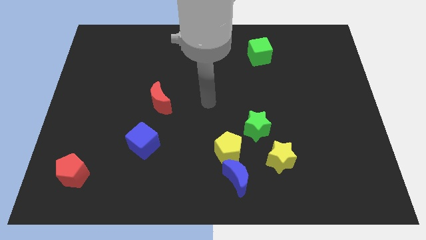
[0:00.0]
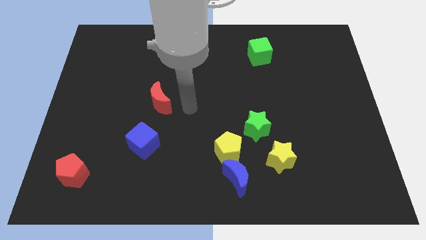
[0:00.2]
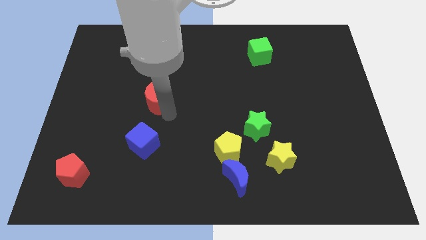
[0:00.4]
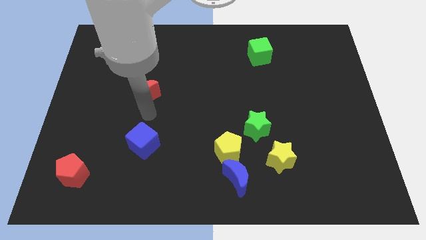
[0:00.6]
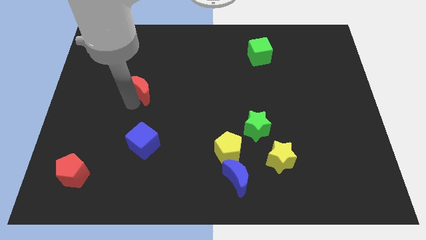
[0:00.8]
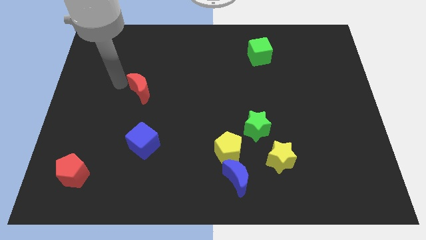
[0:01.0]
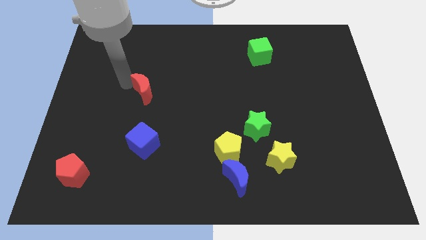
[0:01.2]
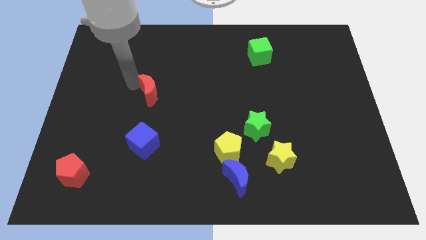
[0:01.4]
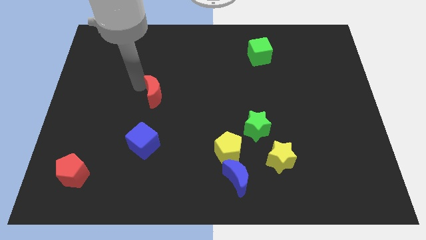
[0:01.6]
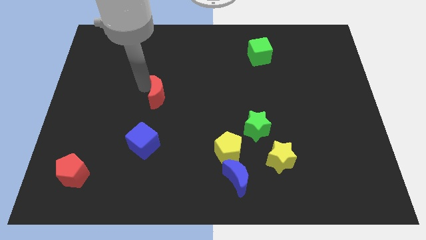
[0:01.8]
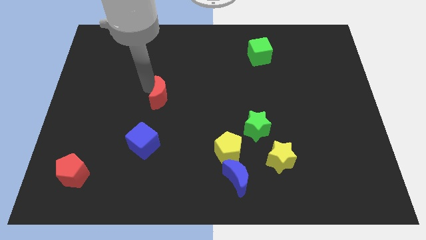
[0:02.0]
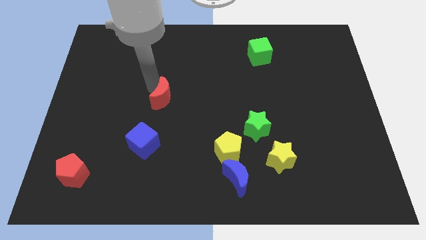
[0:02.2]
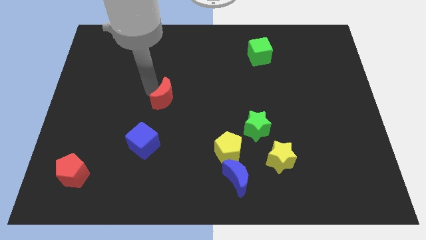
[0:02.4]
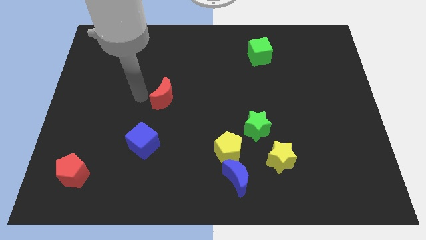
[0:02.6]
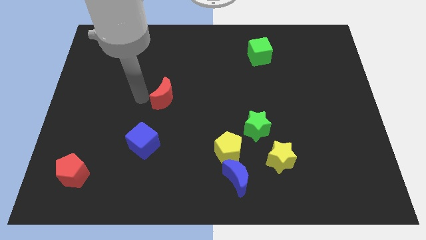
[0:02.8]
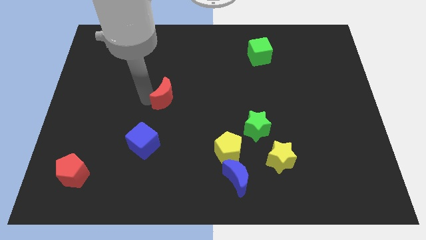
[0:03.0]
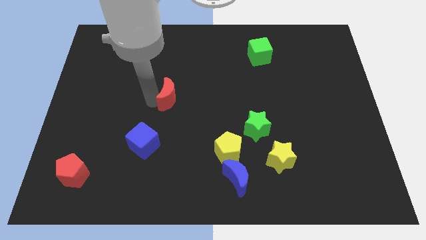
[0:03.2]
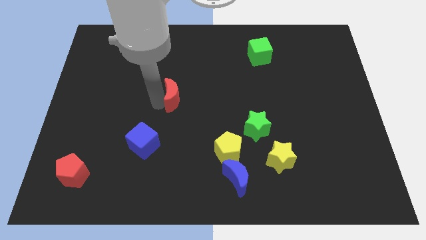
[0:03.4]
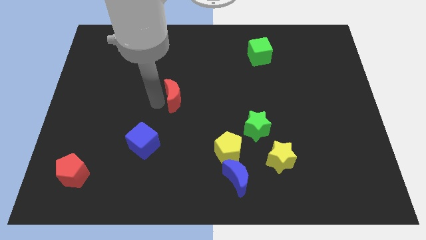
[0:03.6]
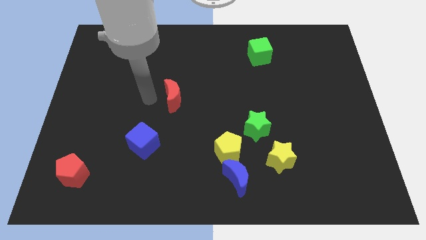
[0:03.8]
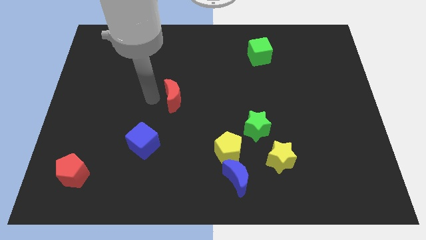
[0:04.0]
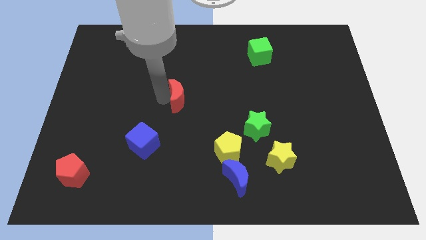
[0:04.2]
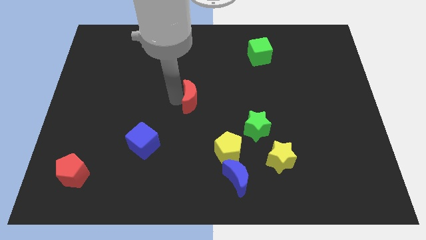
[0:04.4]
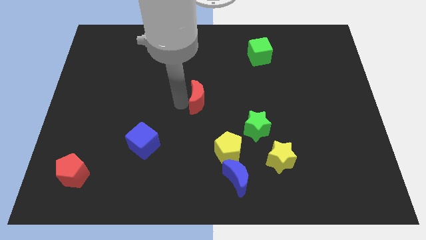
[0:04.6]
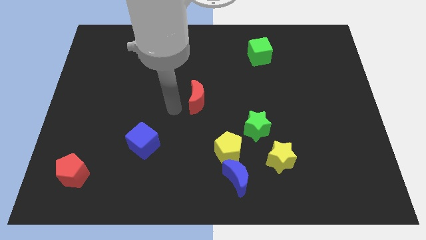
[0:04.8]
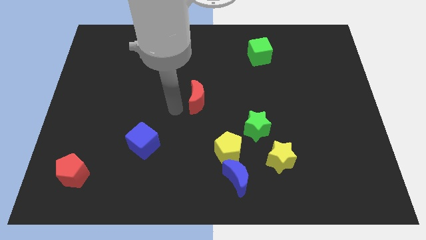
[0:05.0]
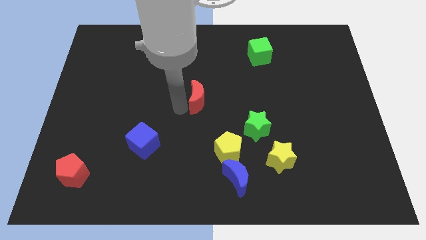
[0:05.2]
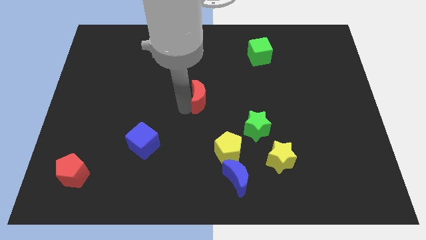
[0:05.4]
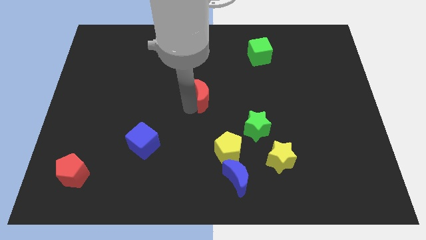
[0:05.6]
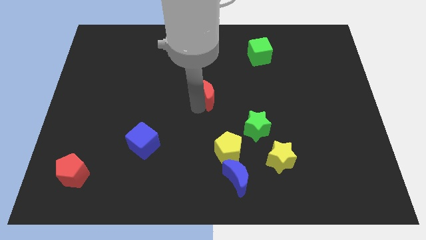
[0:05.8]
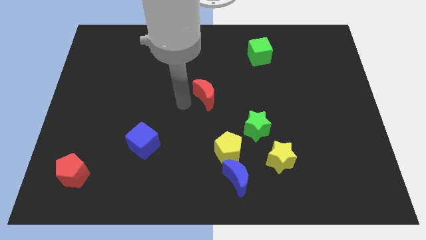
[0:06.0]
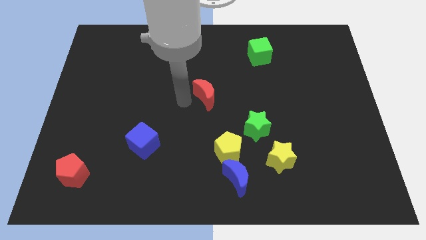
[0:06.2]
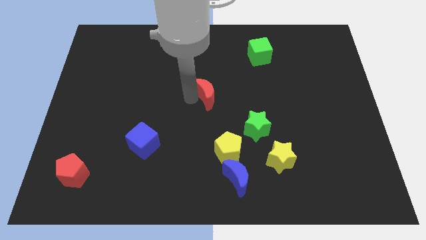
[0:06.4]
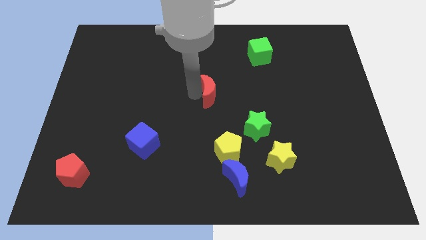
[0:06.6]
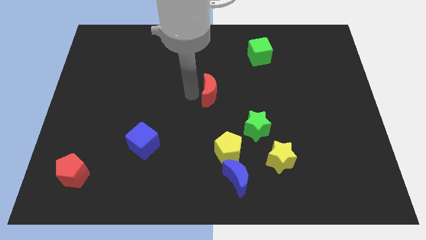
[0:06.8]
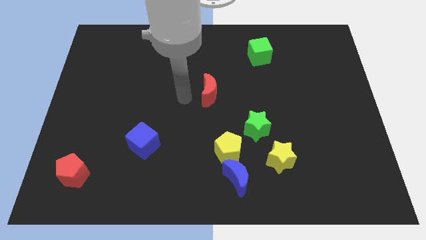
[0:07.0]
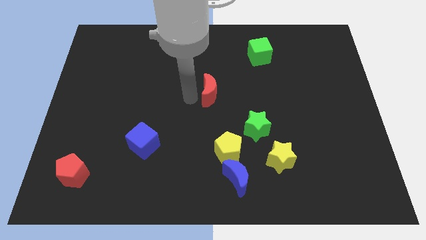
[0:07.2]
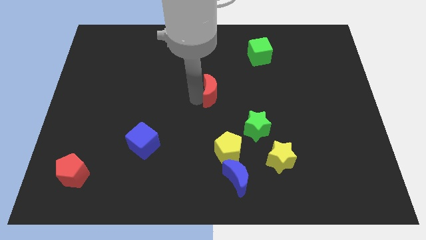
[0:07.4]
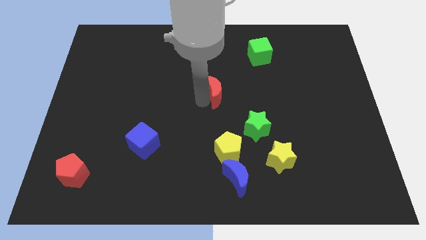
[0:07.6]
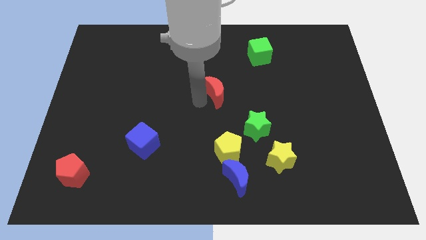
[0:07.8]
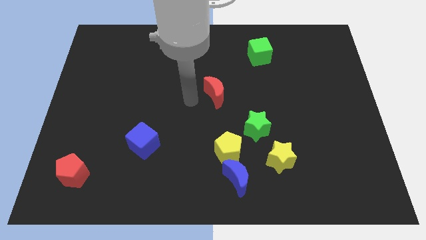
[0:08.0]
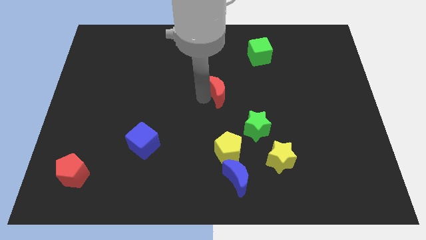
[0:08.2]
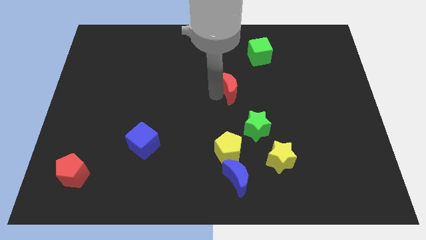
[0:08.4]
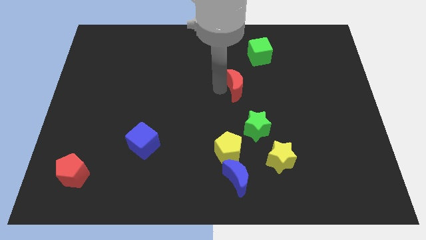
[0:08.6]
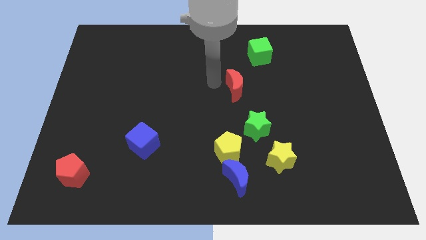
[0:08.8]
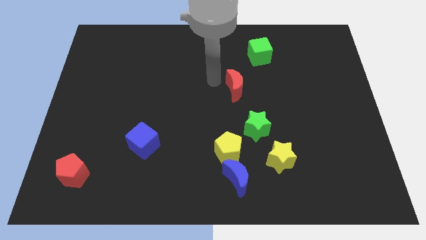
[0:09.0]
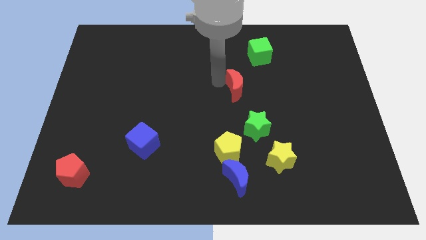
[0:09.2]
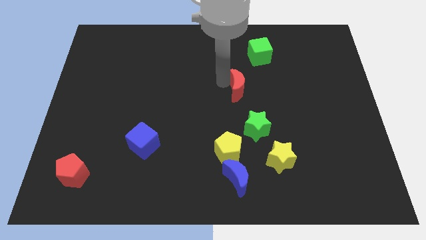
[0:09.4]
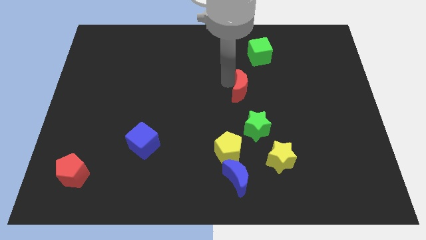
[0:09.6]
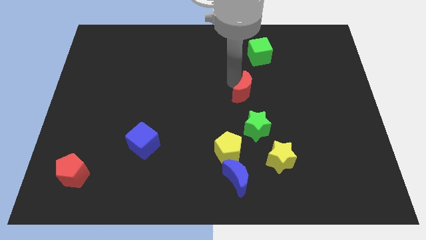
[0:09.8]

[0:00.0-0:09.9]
move the red moon to the right

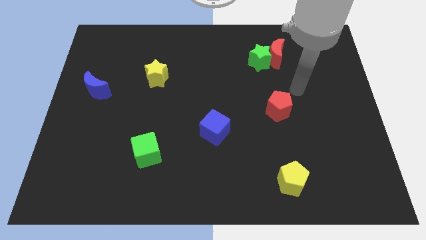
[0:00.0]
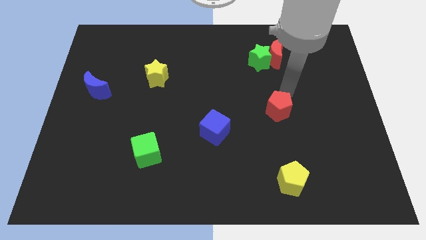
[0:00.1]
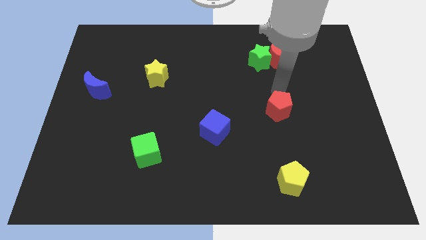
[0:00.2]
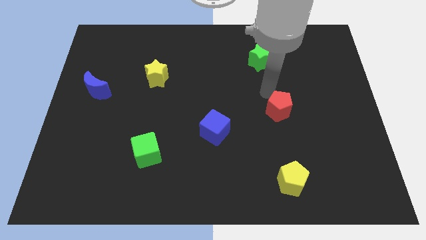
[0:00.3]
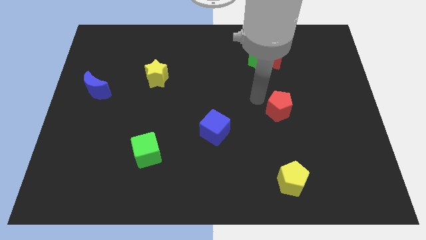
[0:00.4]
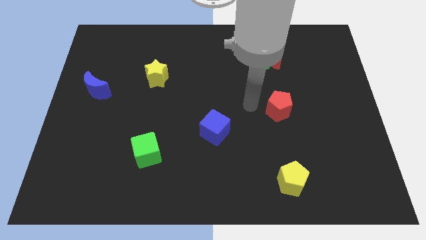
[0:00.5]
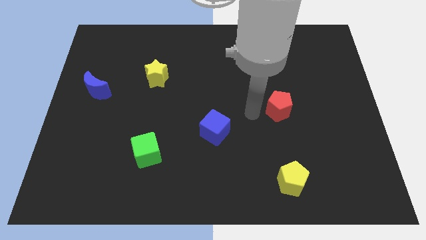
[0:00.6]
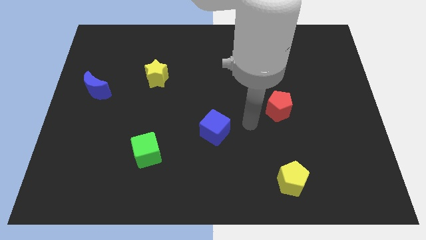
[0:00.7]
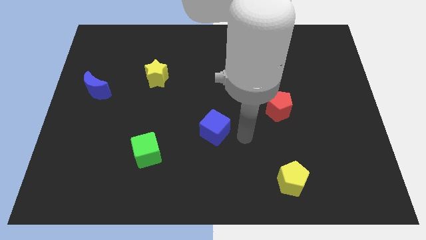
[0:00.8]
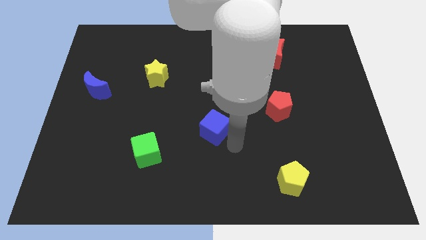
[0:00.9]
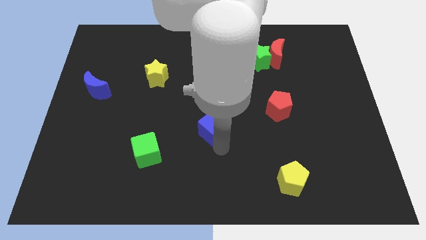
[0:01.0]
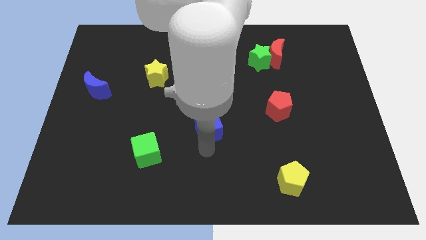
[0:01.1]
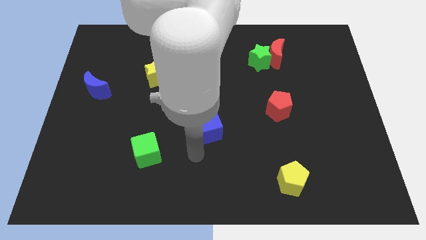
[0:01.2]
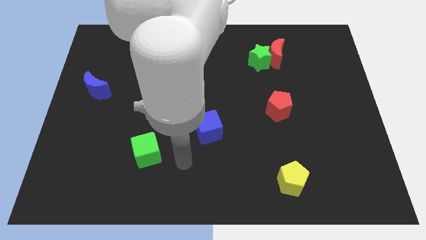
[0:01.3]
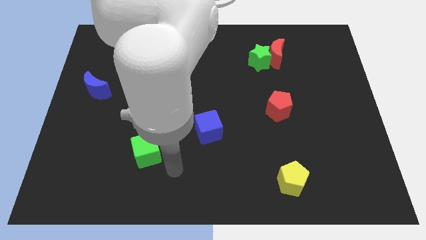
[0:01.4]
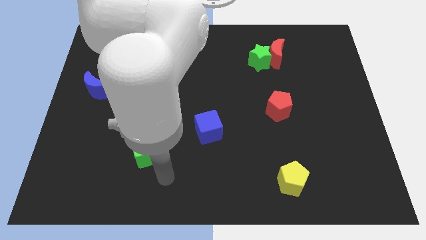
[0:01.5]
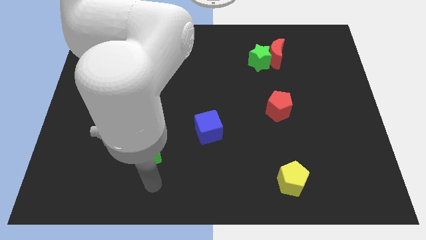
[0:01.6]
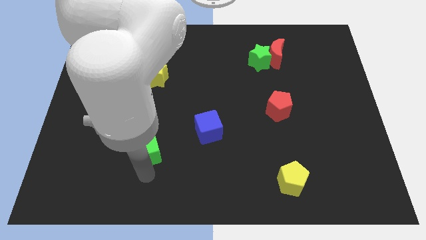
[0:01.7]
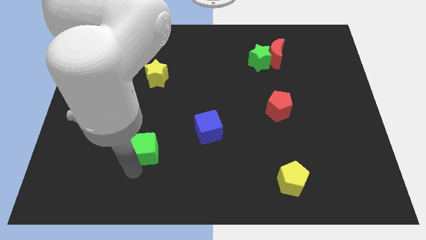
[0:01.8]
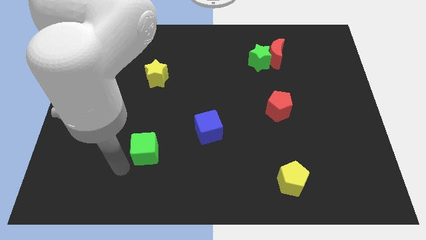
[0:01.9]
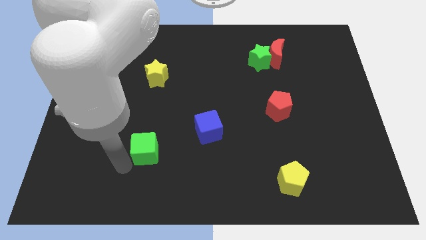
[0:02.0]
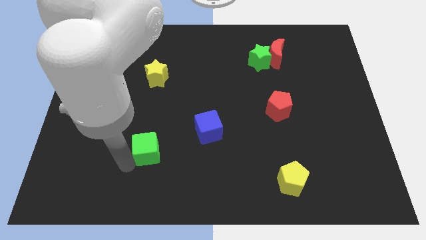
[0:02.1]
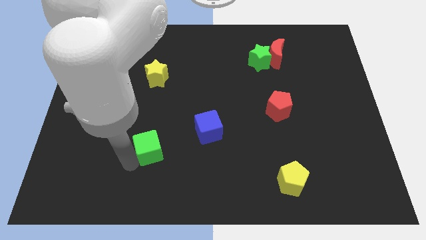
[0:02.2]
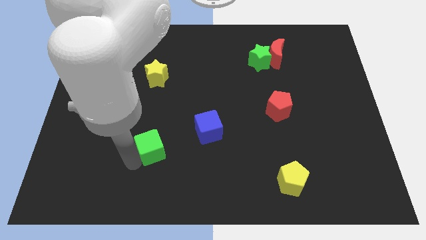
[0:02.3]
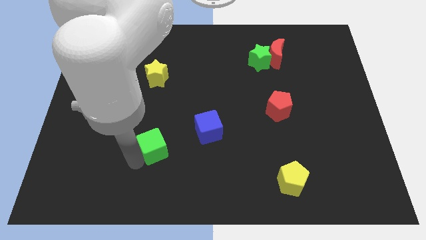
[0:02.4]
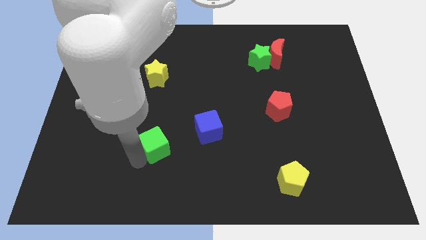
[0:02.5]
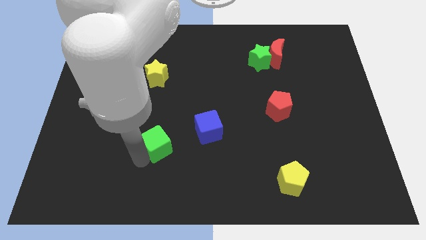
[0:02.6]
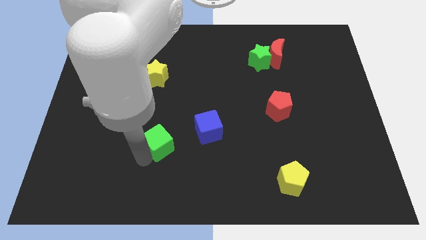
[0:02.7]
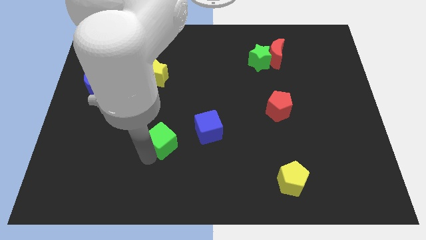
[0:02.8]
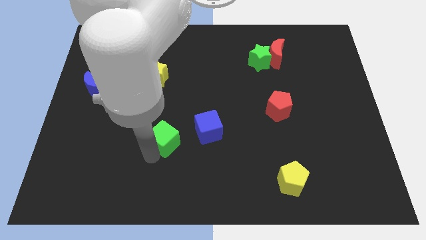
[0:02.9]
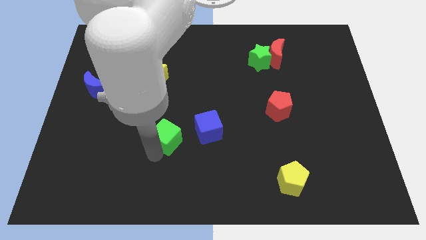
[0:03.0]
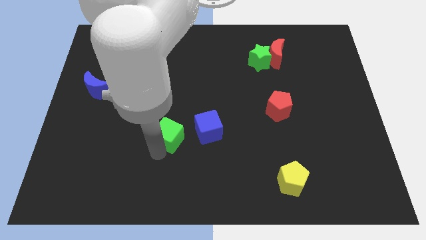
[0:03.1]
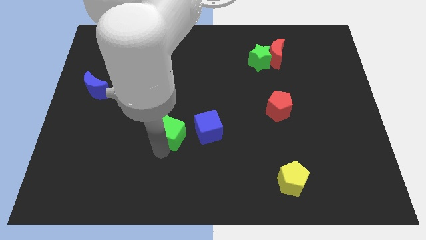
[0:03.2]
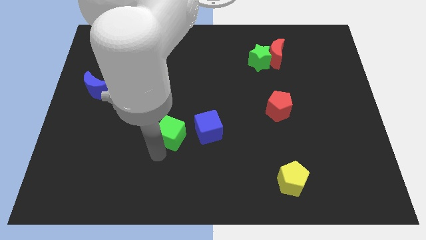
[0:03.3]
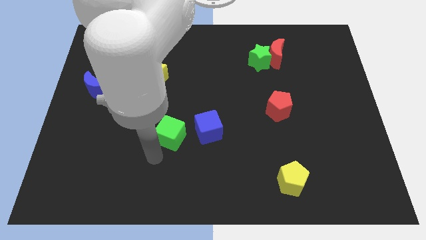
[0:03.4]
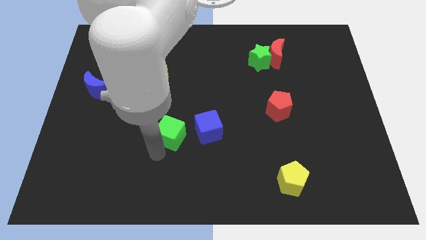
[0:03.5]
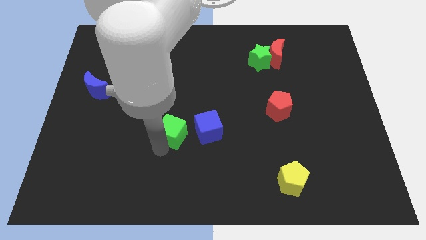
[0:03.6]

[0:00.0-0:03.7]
push the green cube slightly upwards and right
